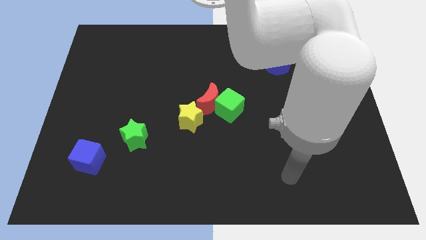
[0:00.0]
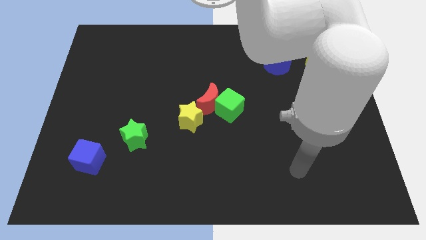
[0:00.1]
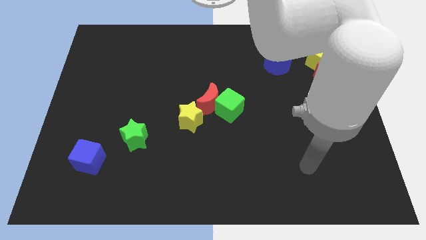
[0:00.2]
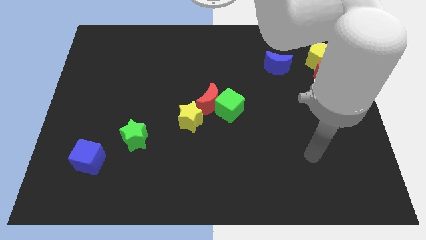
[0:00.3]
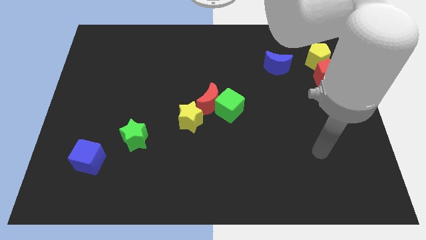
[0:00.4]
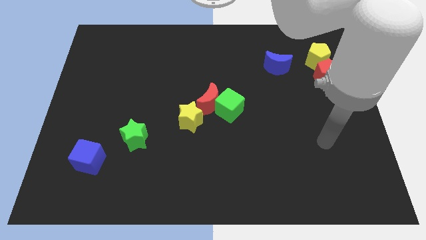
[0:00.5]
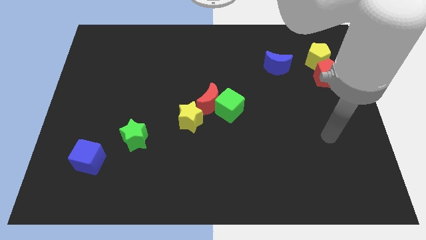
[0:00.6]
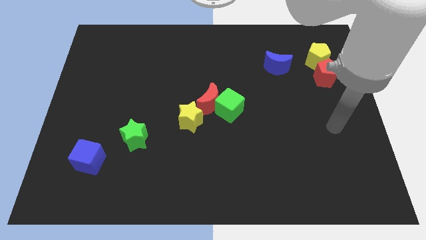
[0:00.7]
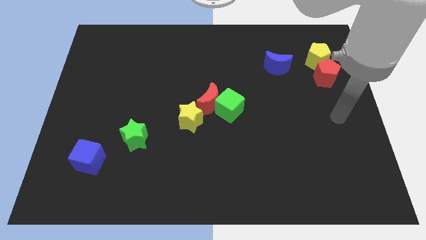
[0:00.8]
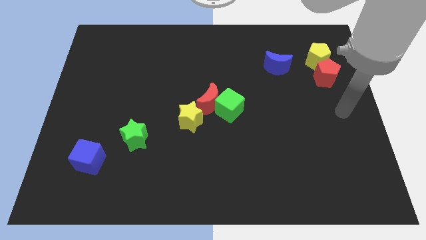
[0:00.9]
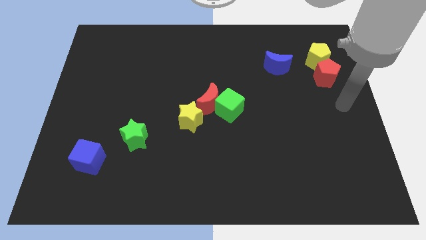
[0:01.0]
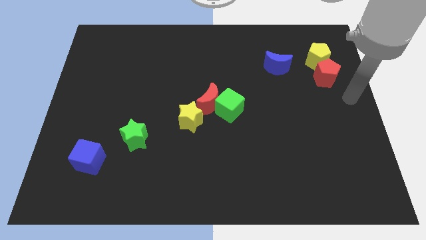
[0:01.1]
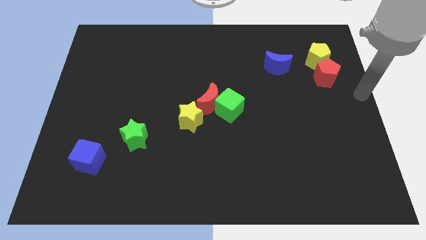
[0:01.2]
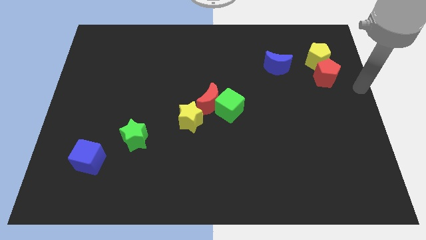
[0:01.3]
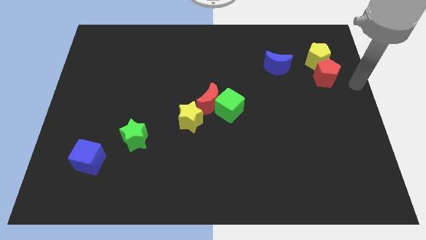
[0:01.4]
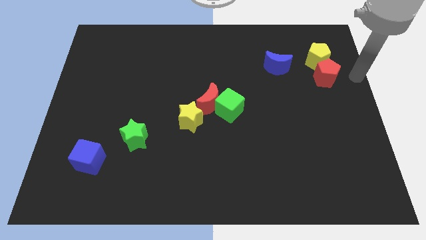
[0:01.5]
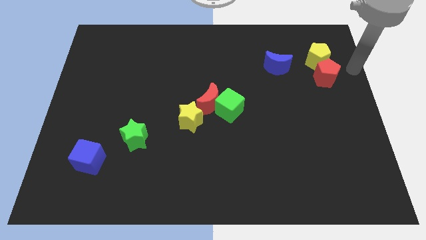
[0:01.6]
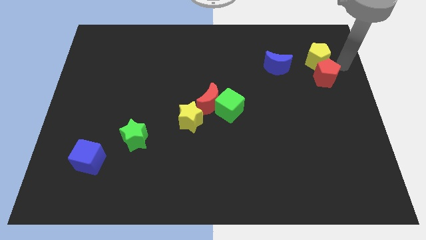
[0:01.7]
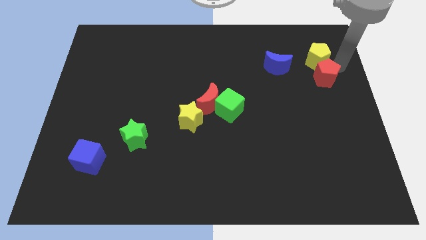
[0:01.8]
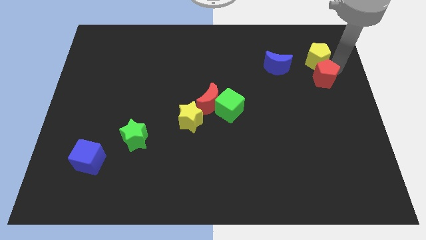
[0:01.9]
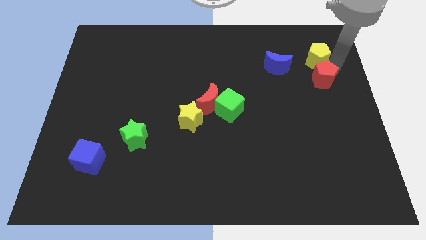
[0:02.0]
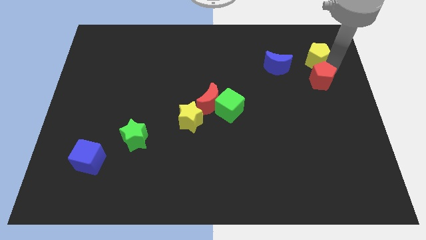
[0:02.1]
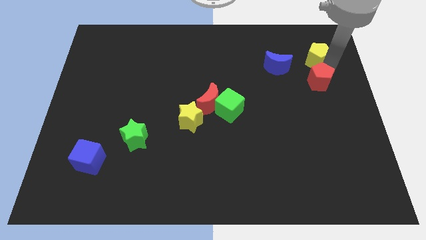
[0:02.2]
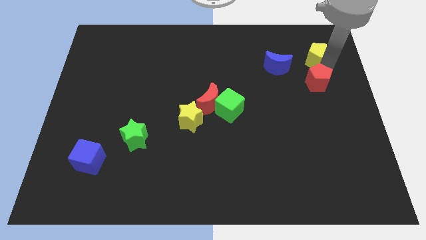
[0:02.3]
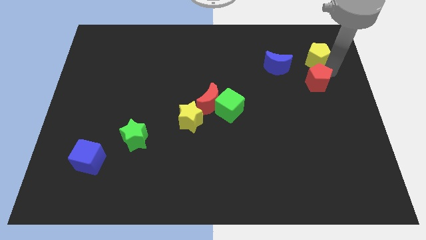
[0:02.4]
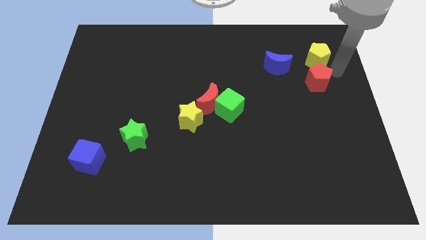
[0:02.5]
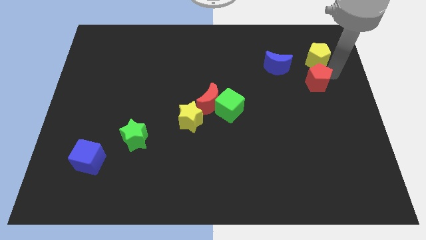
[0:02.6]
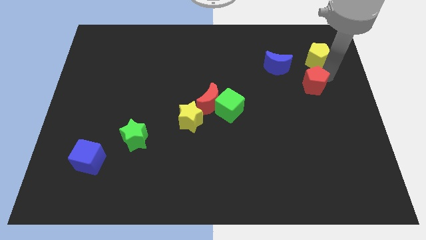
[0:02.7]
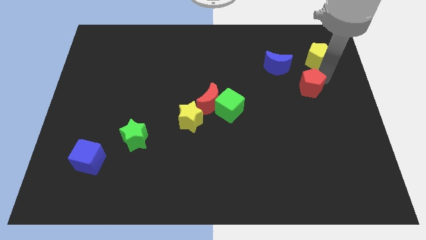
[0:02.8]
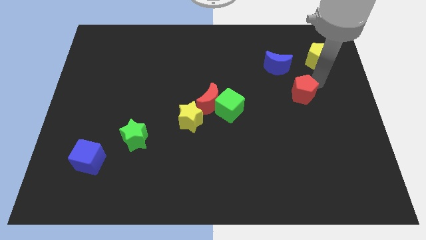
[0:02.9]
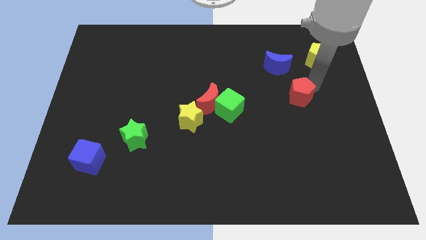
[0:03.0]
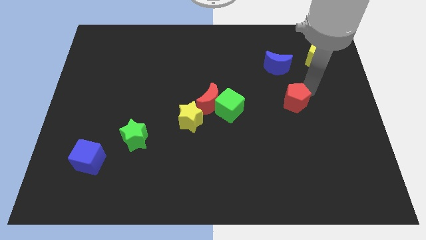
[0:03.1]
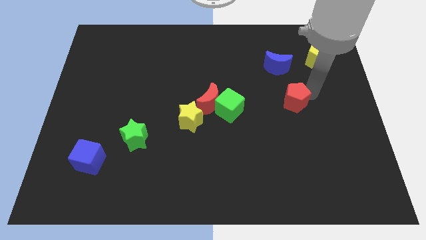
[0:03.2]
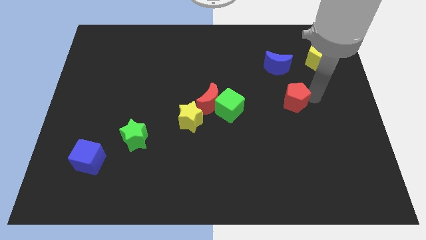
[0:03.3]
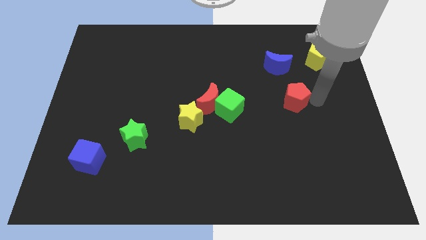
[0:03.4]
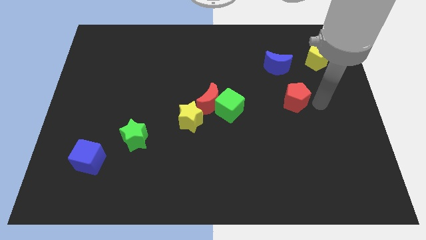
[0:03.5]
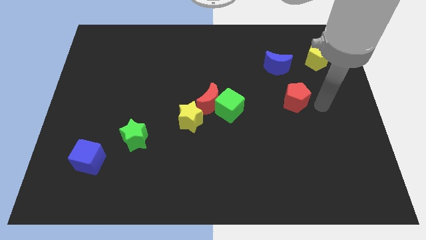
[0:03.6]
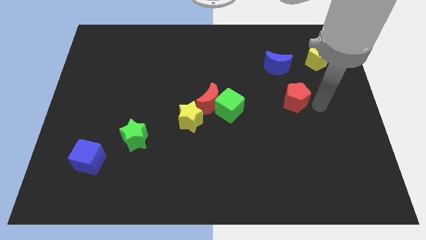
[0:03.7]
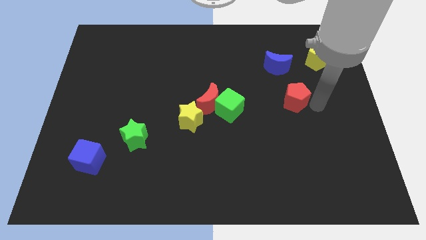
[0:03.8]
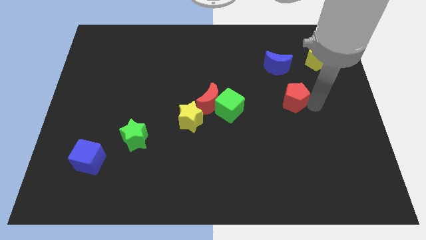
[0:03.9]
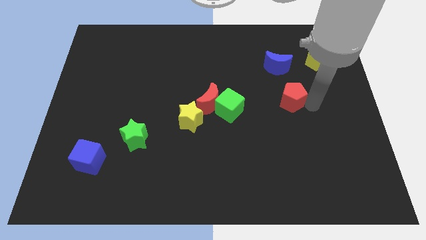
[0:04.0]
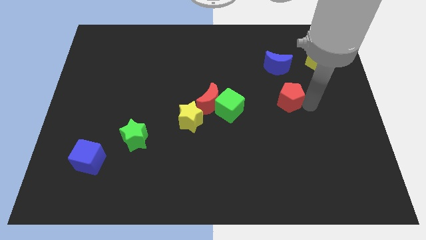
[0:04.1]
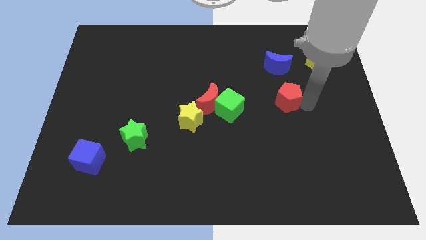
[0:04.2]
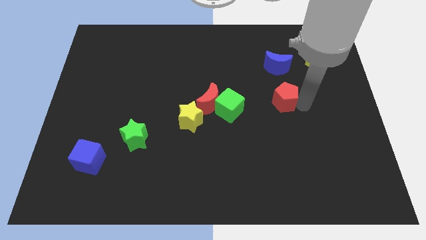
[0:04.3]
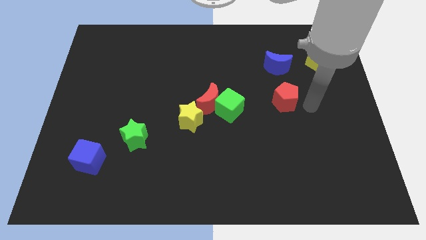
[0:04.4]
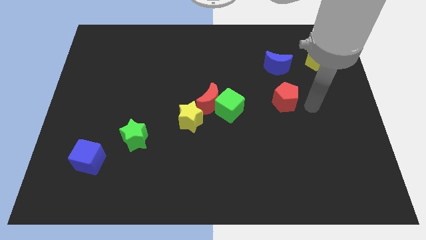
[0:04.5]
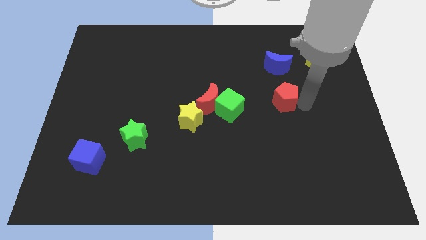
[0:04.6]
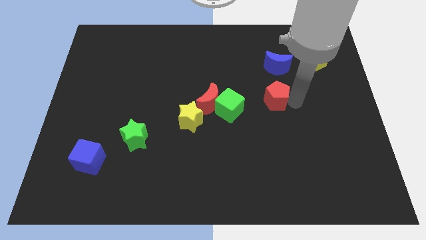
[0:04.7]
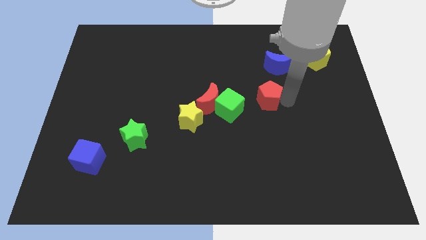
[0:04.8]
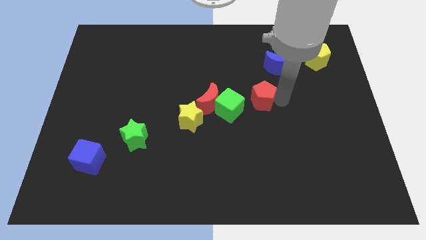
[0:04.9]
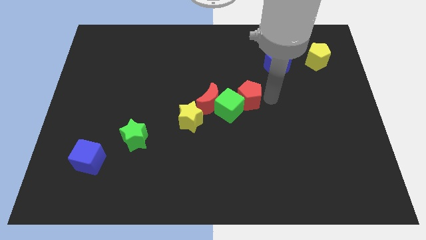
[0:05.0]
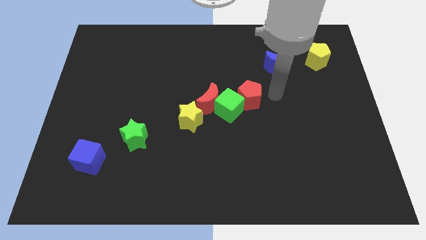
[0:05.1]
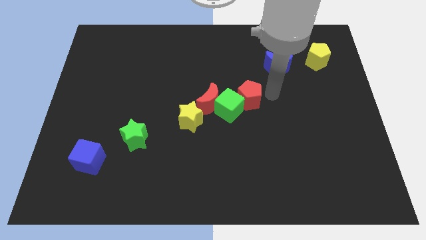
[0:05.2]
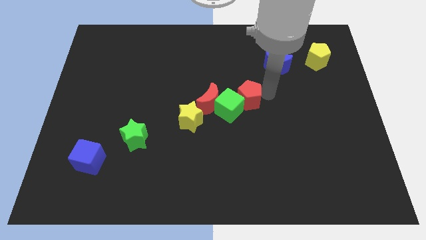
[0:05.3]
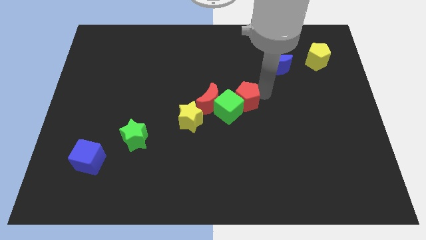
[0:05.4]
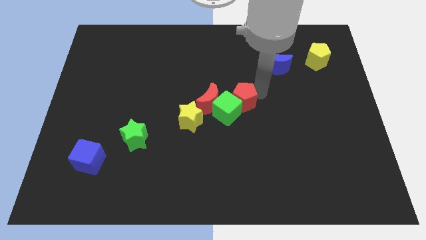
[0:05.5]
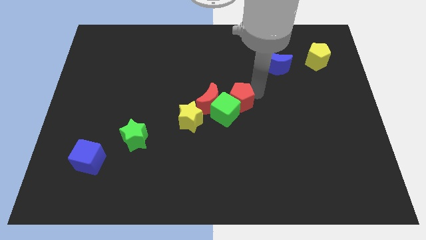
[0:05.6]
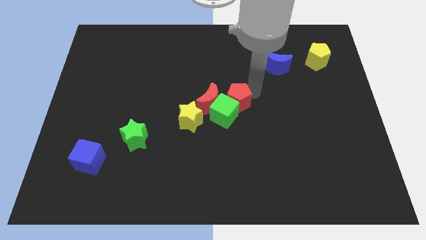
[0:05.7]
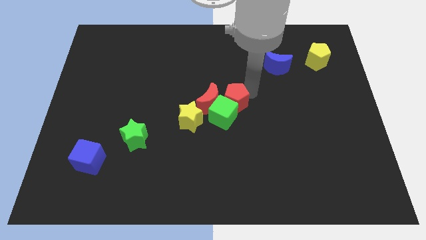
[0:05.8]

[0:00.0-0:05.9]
slide the red pentagon to the top right side of the yellow star

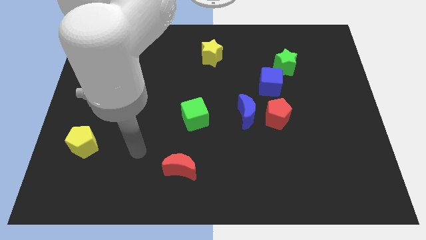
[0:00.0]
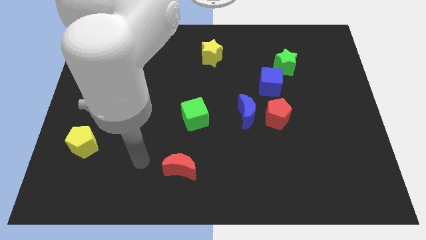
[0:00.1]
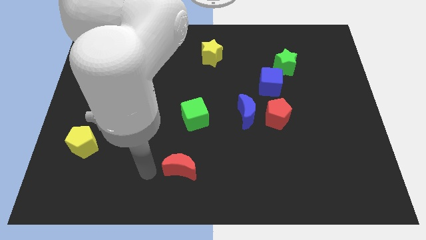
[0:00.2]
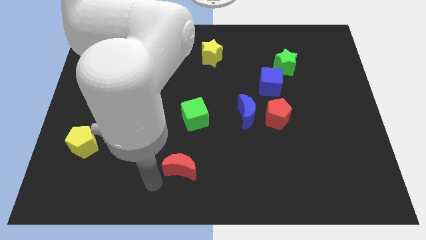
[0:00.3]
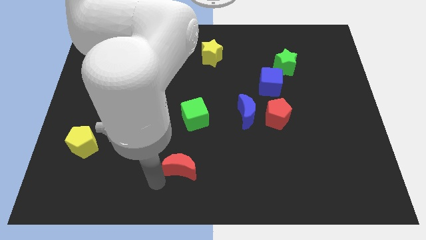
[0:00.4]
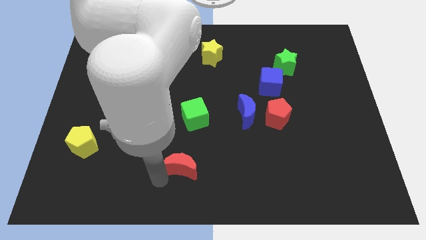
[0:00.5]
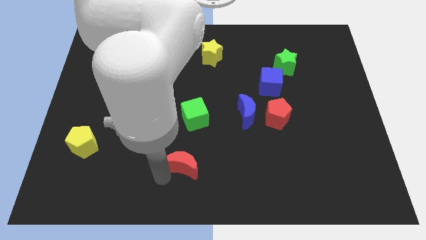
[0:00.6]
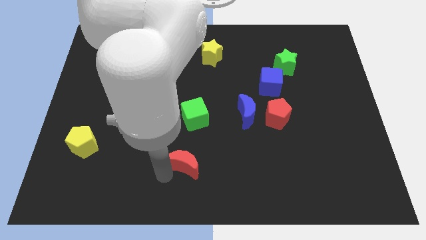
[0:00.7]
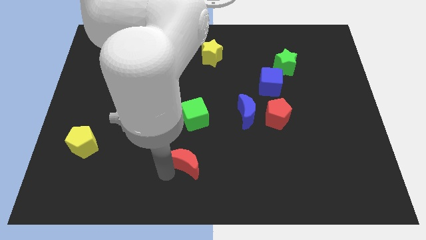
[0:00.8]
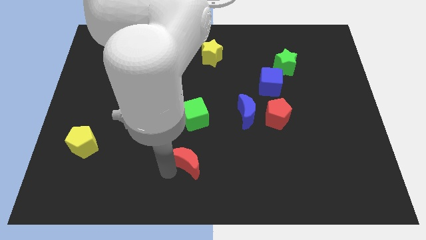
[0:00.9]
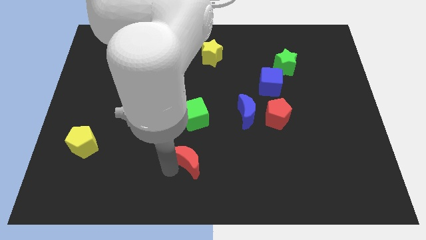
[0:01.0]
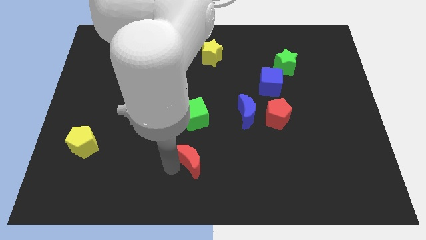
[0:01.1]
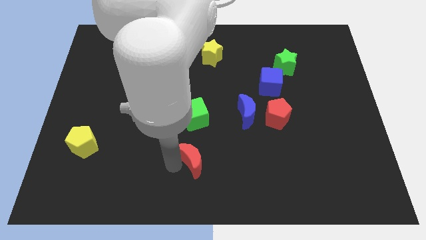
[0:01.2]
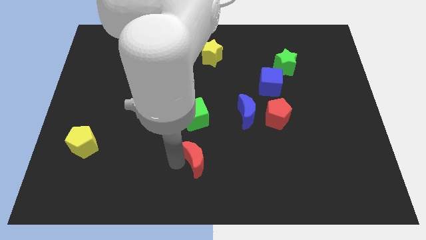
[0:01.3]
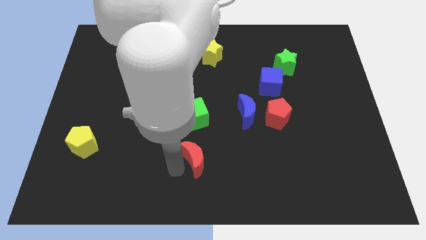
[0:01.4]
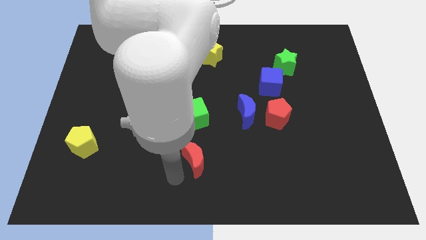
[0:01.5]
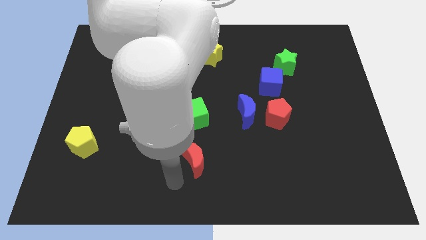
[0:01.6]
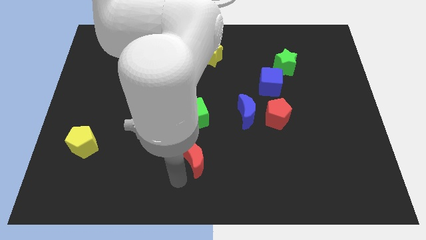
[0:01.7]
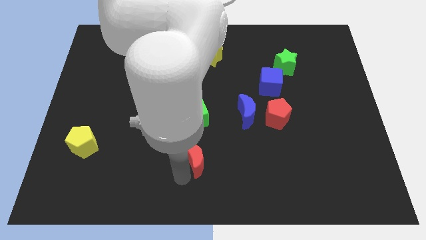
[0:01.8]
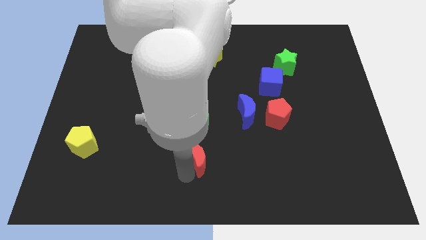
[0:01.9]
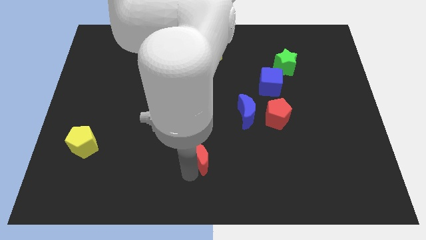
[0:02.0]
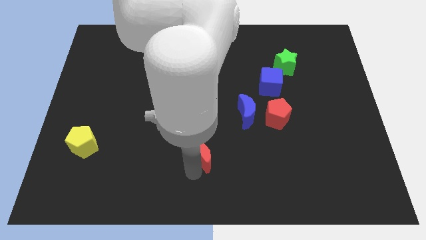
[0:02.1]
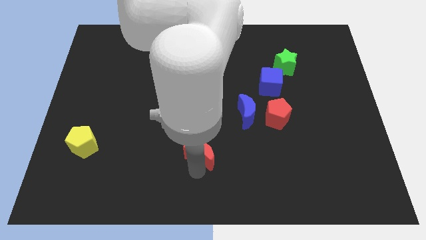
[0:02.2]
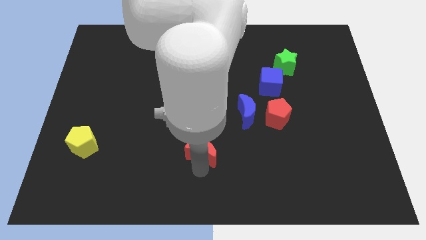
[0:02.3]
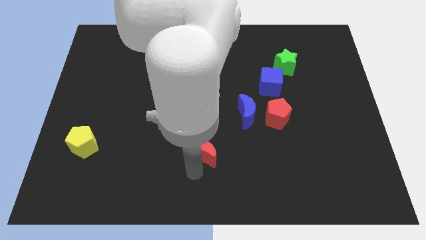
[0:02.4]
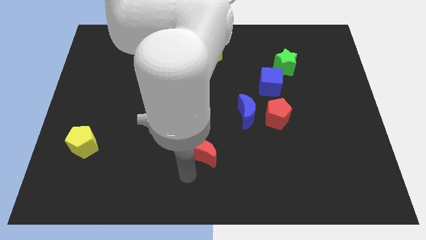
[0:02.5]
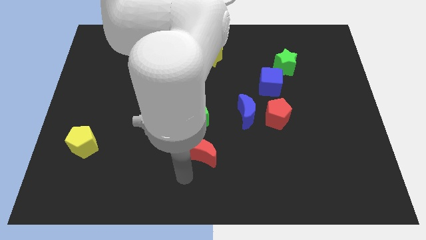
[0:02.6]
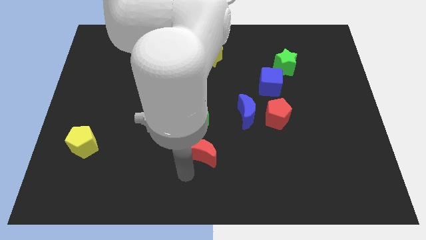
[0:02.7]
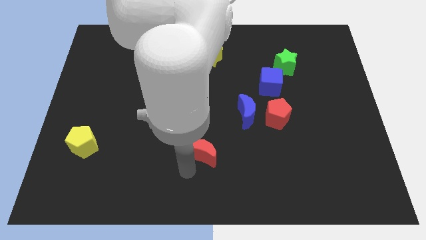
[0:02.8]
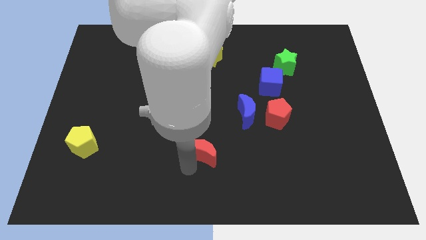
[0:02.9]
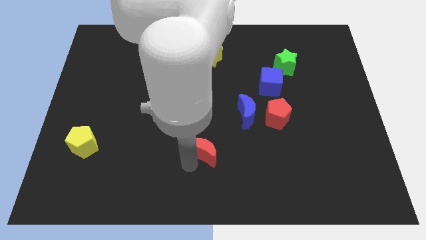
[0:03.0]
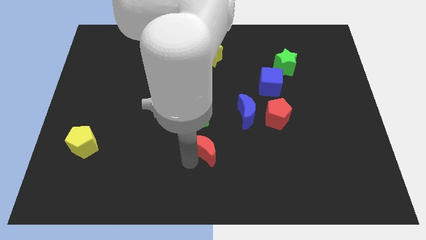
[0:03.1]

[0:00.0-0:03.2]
put the red moon diagonally down and to the right of the green cube
